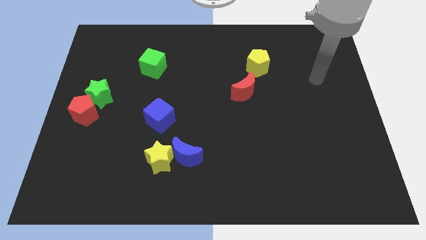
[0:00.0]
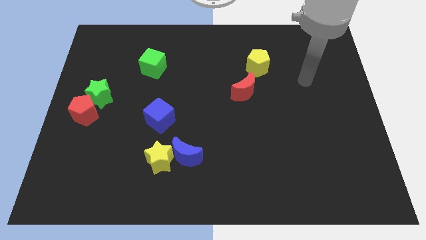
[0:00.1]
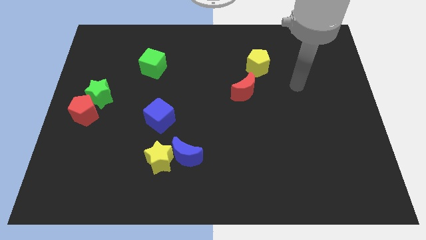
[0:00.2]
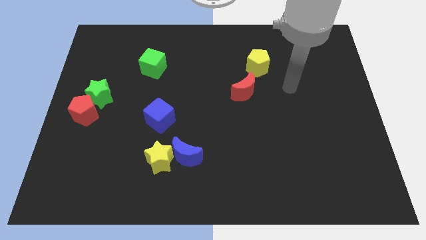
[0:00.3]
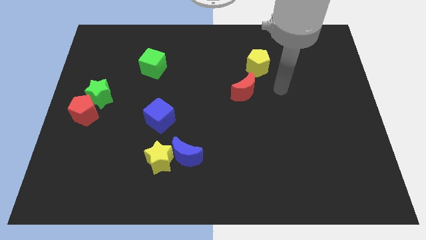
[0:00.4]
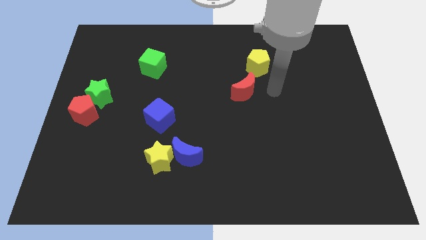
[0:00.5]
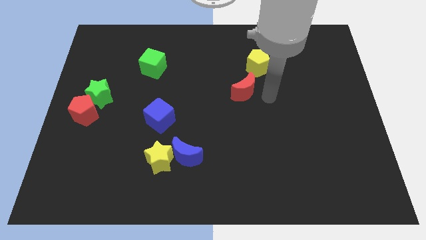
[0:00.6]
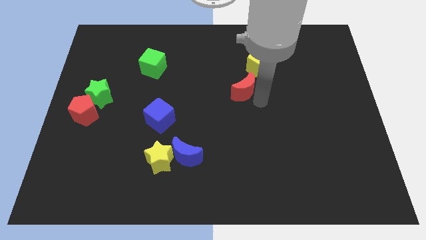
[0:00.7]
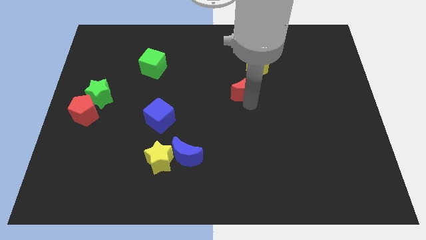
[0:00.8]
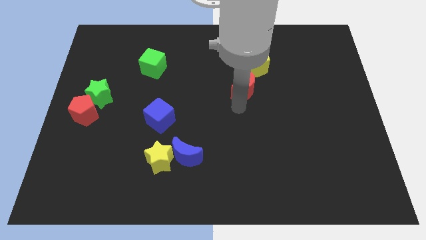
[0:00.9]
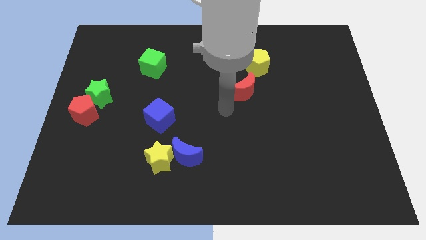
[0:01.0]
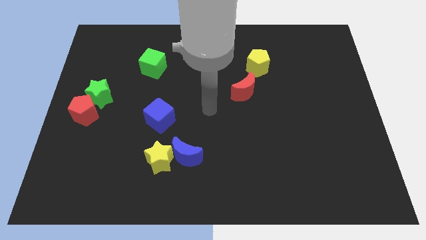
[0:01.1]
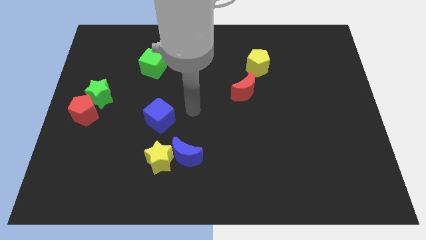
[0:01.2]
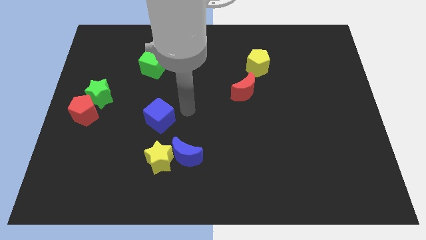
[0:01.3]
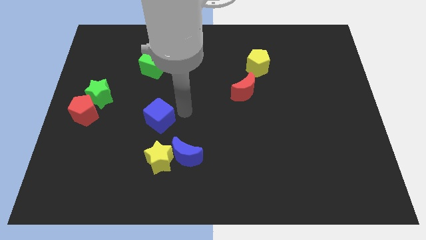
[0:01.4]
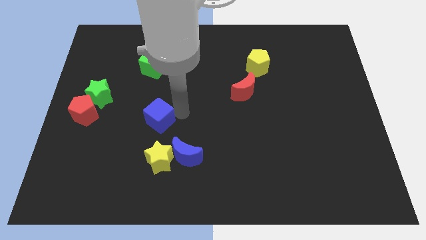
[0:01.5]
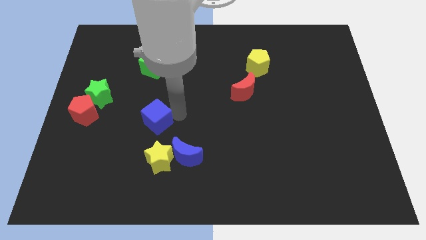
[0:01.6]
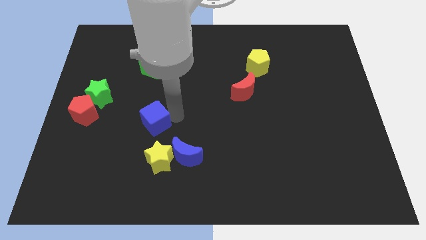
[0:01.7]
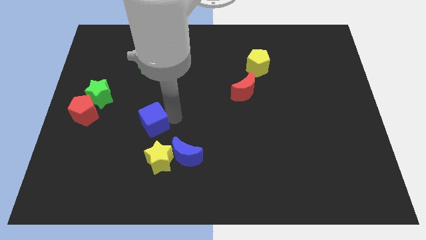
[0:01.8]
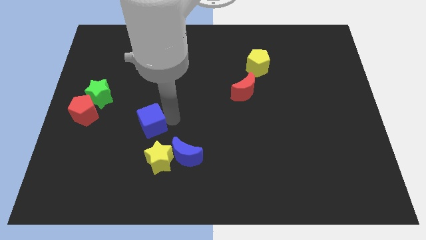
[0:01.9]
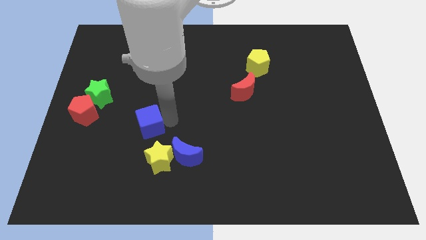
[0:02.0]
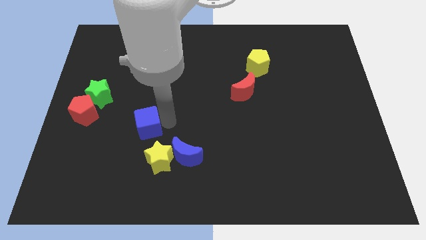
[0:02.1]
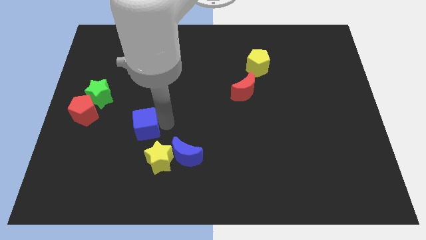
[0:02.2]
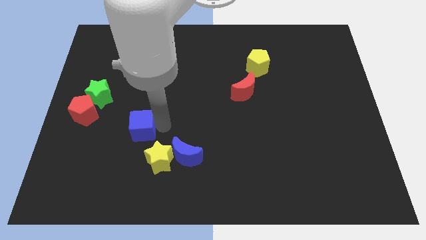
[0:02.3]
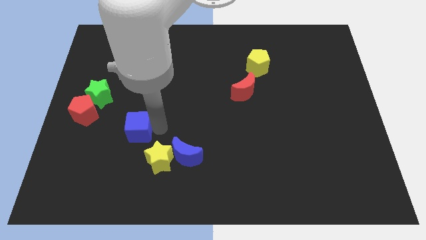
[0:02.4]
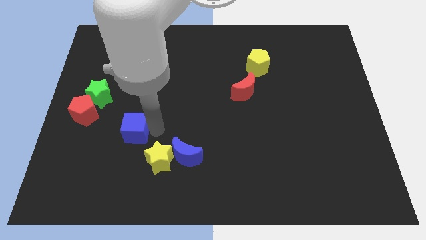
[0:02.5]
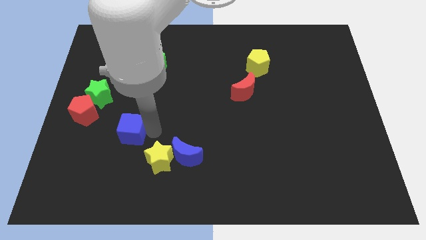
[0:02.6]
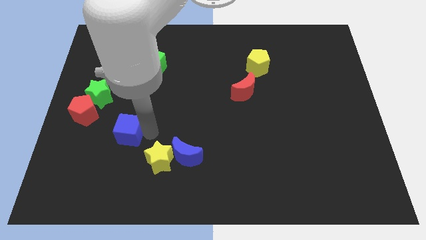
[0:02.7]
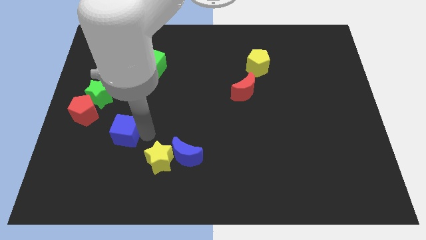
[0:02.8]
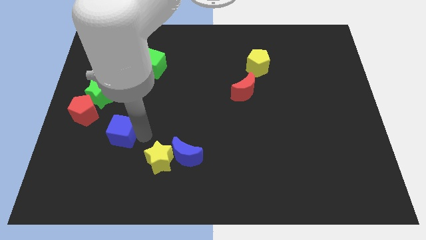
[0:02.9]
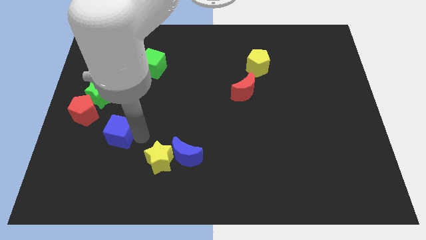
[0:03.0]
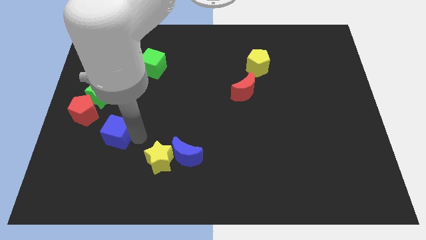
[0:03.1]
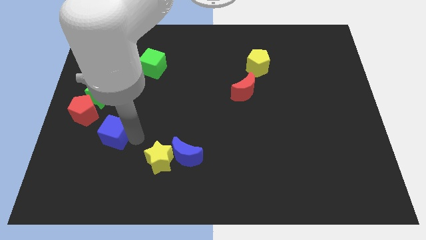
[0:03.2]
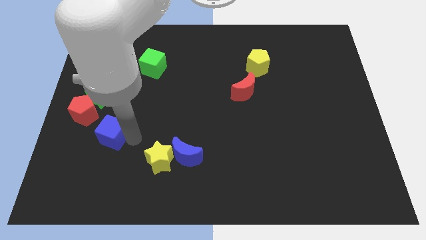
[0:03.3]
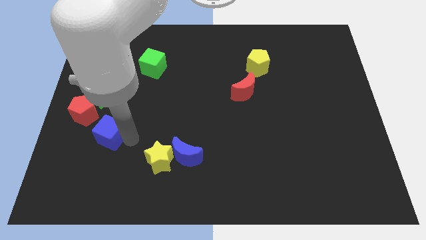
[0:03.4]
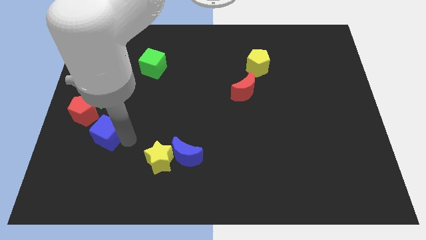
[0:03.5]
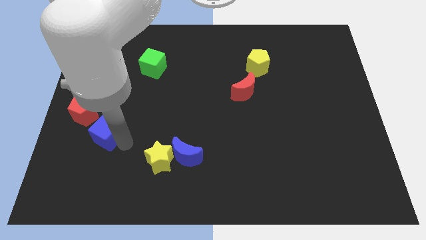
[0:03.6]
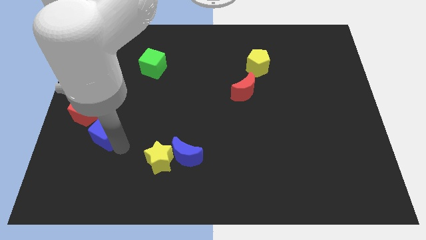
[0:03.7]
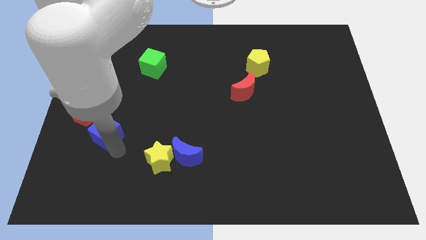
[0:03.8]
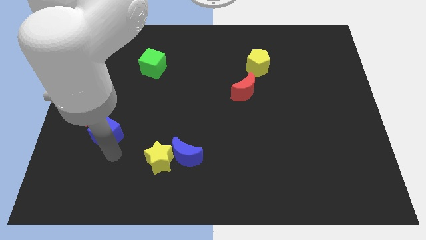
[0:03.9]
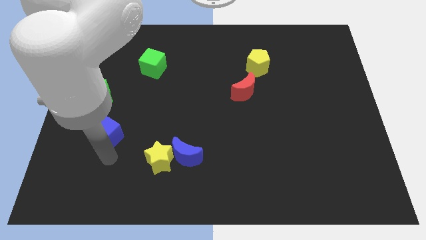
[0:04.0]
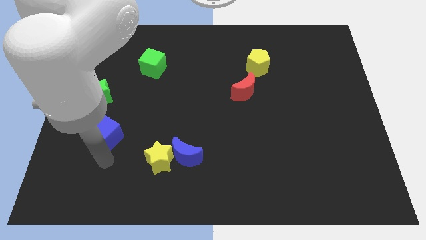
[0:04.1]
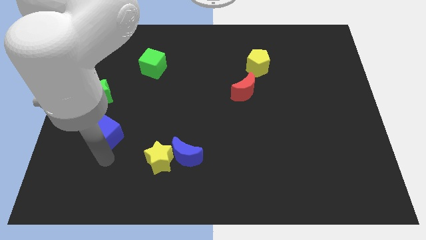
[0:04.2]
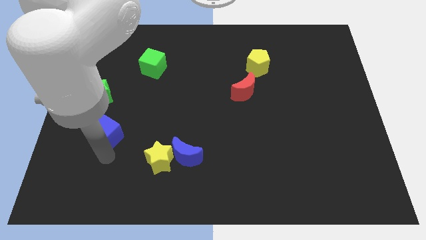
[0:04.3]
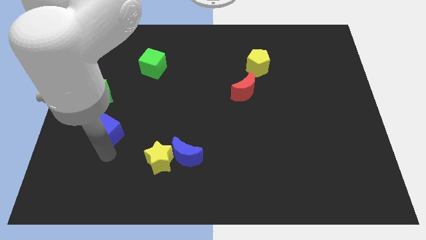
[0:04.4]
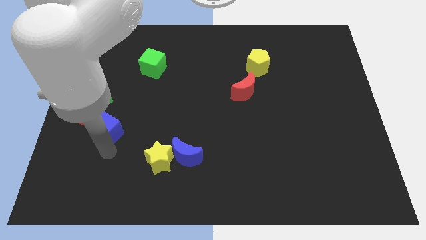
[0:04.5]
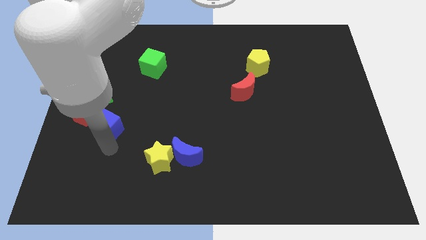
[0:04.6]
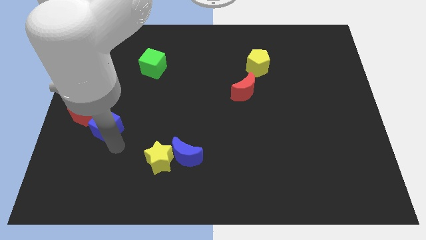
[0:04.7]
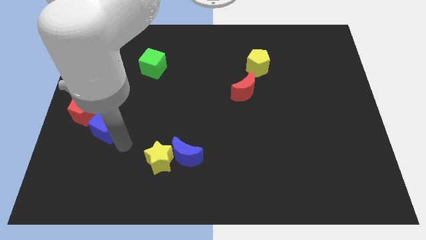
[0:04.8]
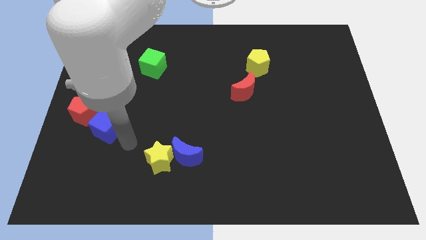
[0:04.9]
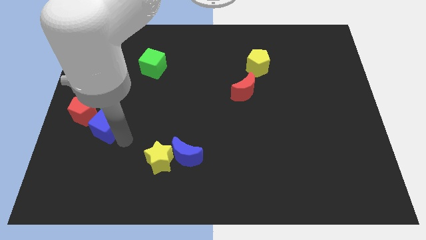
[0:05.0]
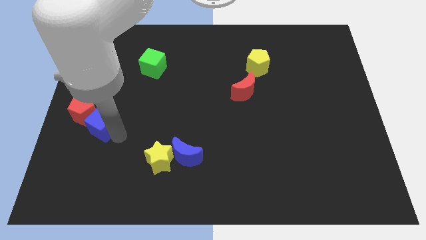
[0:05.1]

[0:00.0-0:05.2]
slide the blue cube towards the red pentagon

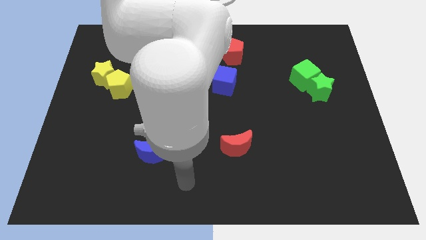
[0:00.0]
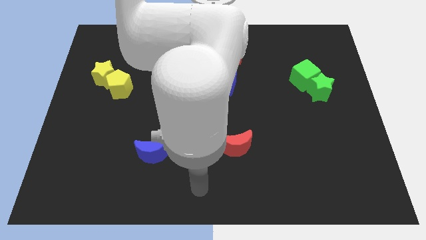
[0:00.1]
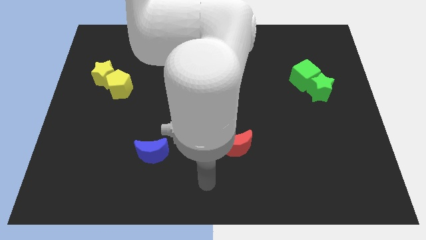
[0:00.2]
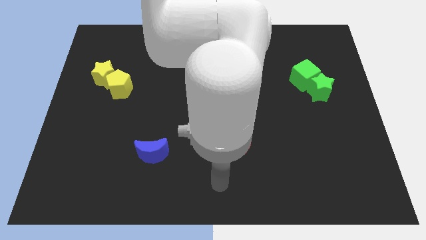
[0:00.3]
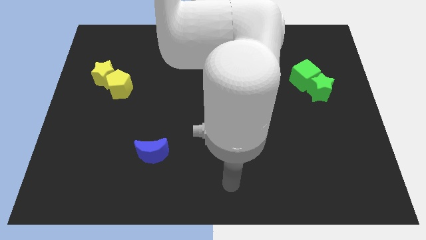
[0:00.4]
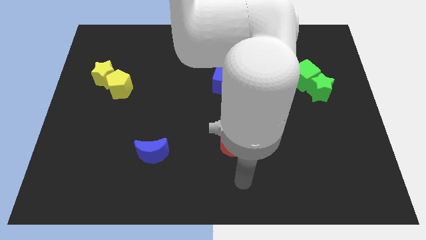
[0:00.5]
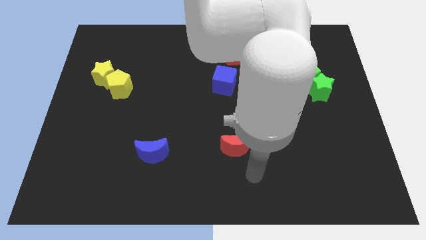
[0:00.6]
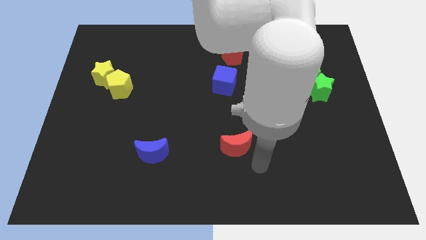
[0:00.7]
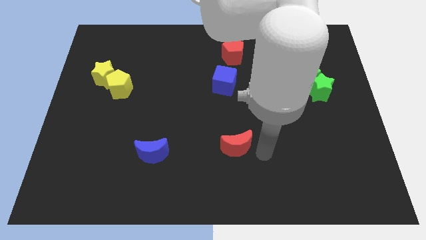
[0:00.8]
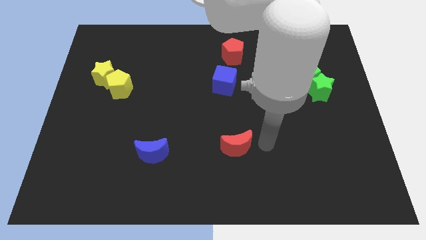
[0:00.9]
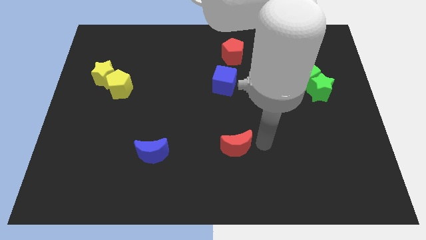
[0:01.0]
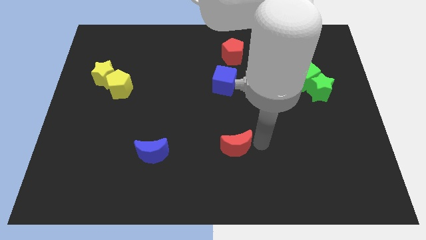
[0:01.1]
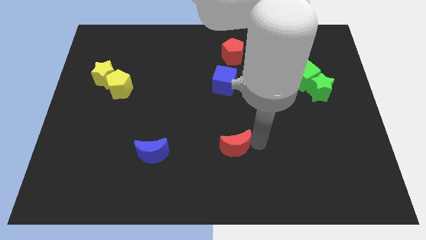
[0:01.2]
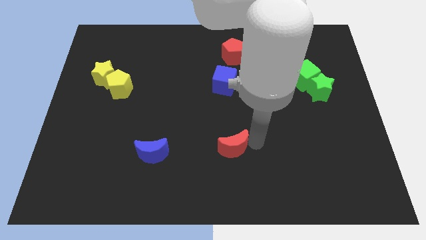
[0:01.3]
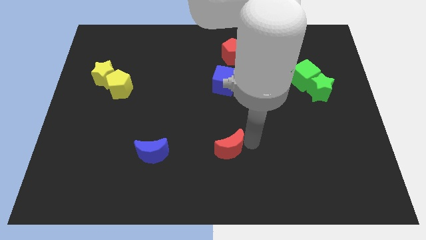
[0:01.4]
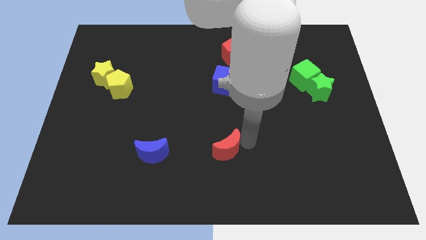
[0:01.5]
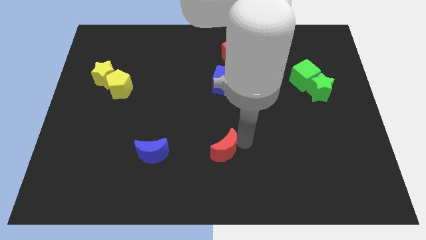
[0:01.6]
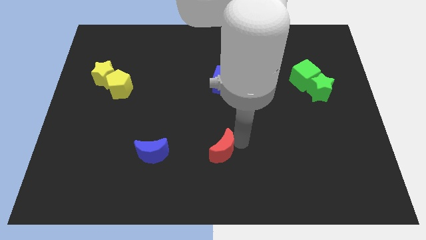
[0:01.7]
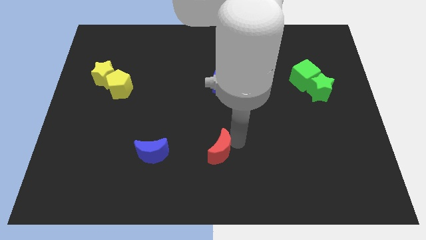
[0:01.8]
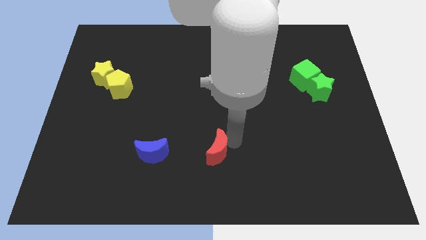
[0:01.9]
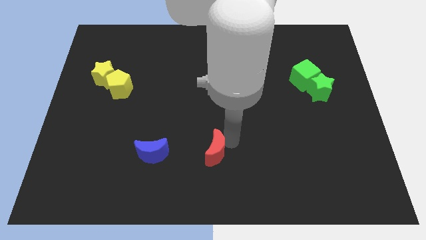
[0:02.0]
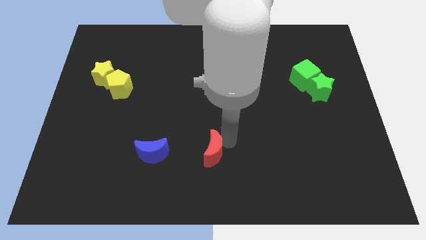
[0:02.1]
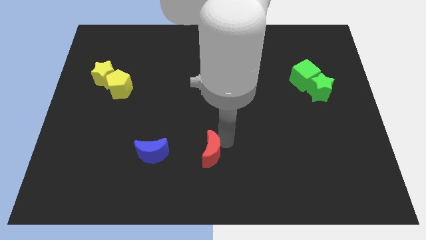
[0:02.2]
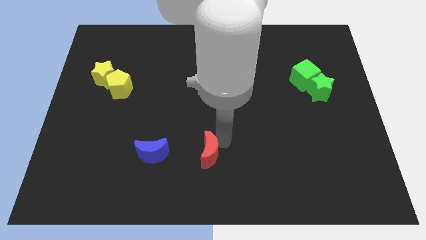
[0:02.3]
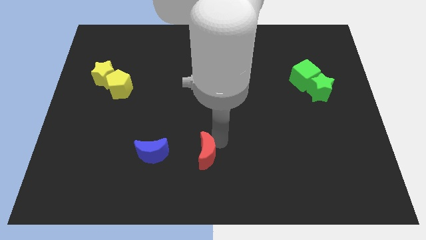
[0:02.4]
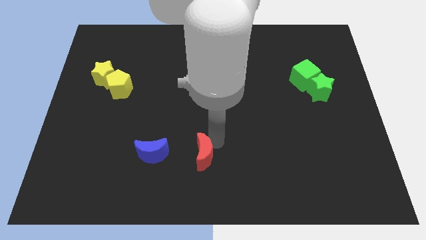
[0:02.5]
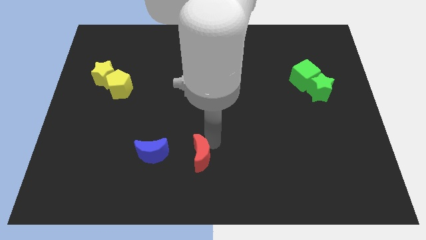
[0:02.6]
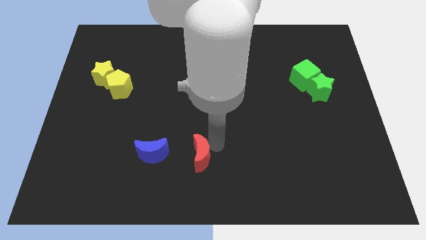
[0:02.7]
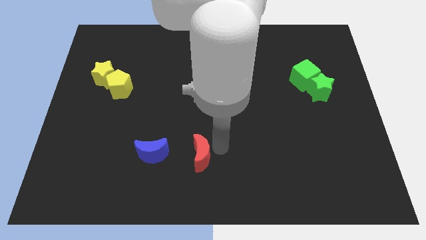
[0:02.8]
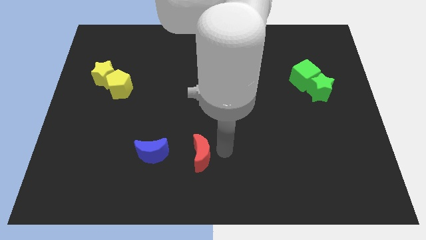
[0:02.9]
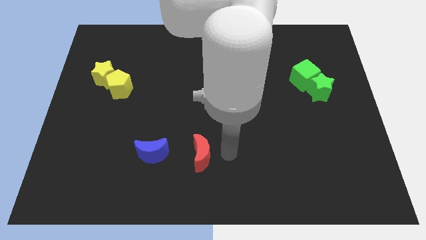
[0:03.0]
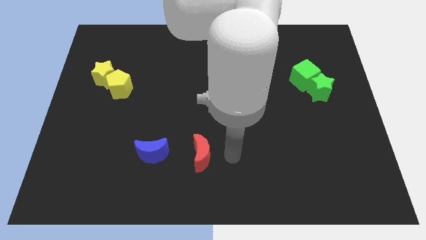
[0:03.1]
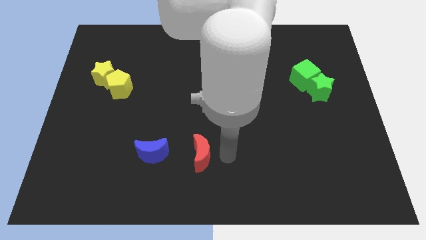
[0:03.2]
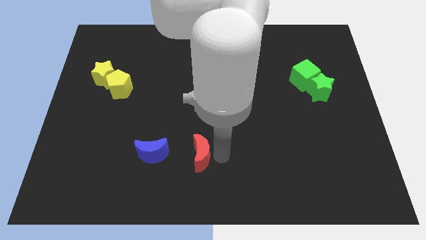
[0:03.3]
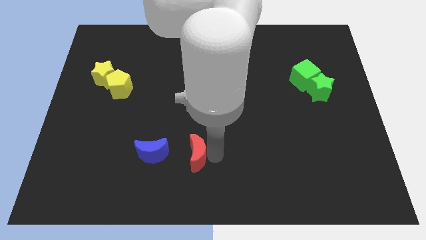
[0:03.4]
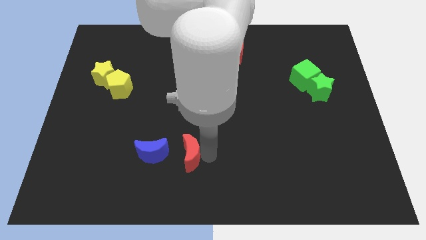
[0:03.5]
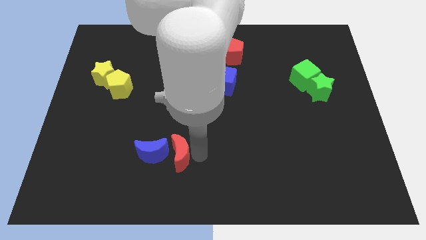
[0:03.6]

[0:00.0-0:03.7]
move the red moon towards the blue moon
